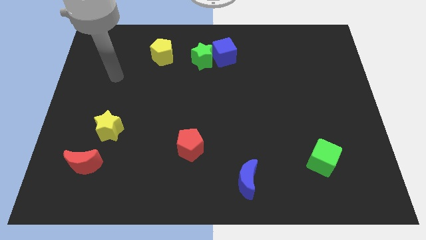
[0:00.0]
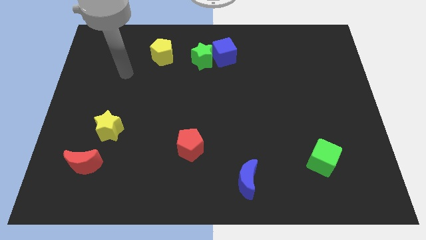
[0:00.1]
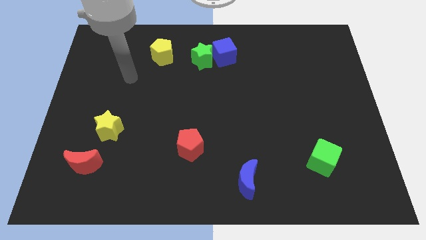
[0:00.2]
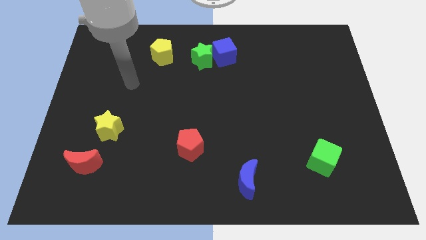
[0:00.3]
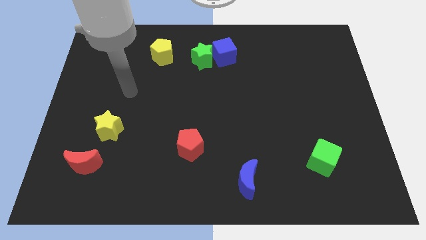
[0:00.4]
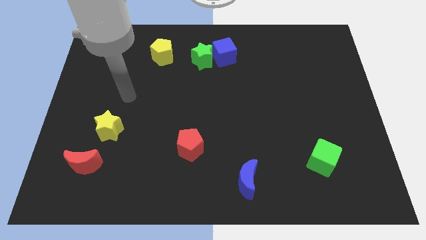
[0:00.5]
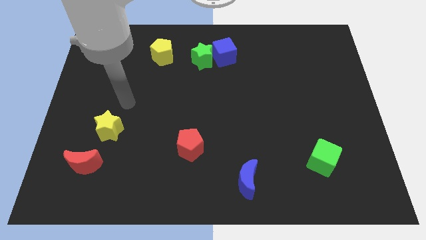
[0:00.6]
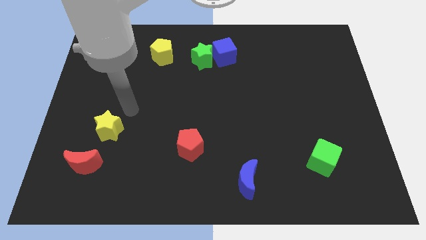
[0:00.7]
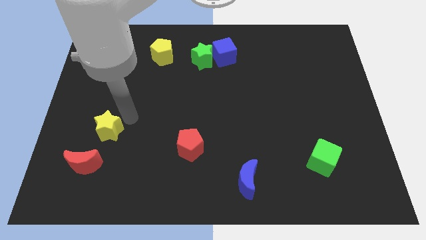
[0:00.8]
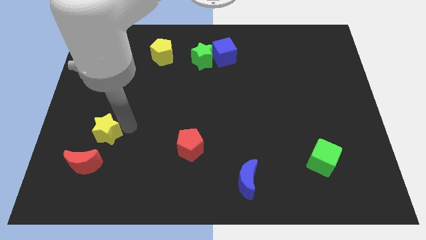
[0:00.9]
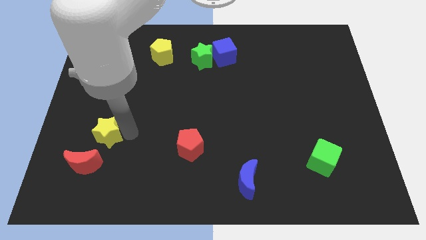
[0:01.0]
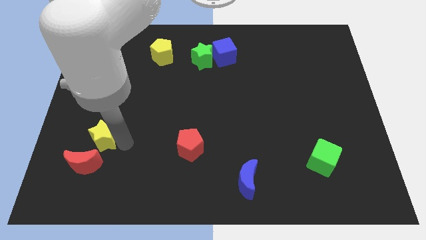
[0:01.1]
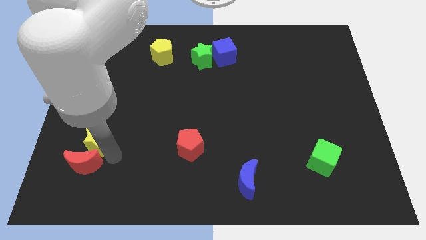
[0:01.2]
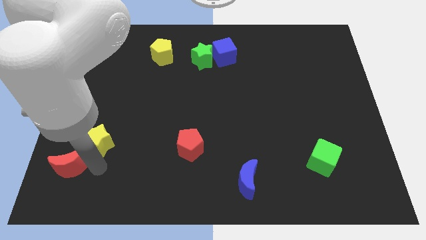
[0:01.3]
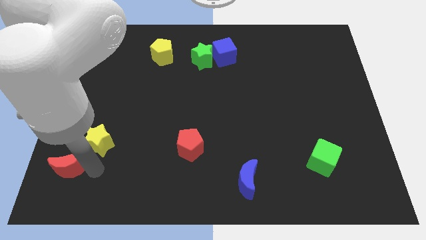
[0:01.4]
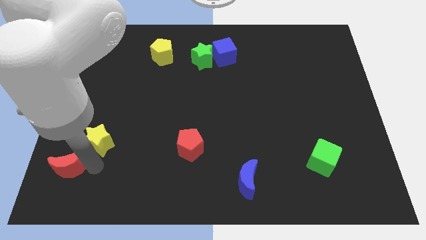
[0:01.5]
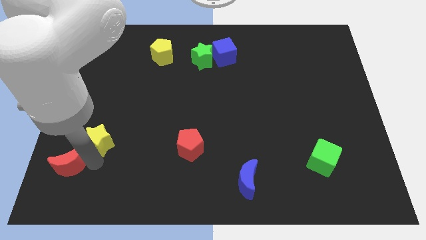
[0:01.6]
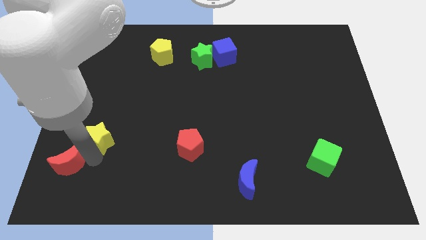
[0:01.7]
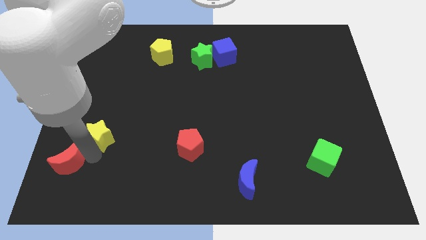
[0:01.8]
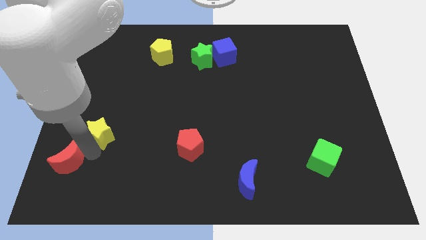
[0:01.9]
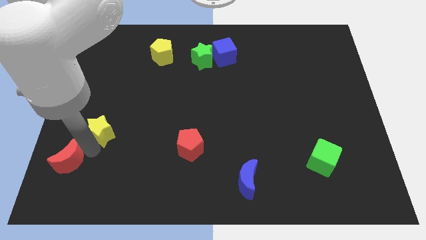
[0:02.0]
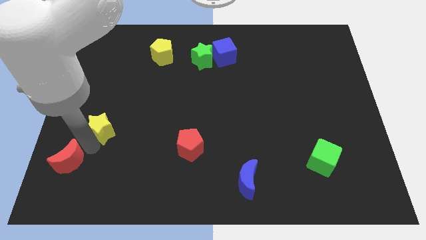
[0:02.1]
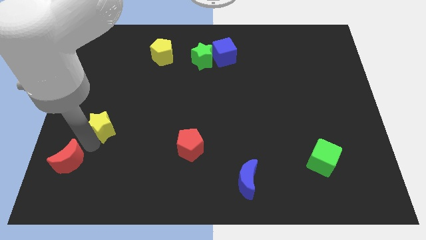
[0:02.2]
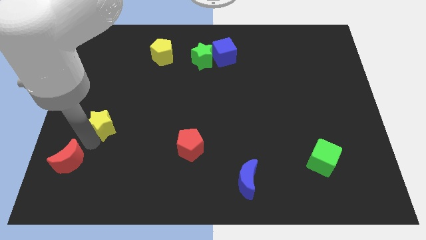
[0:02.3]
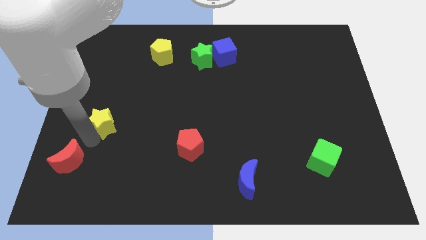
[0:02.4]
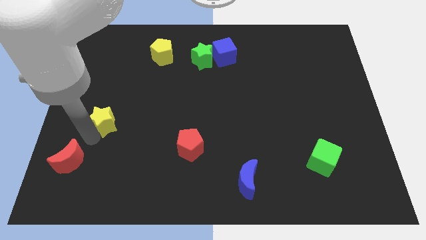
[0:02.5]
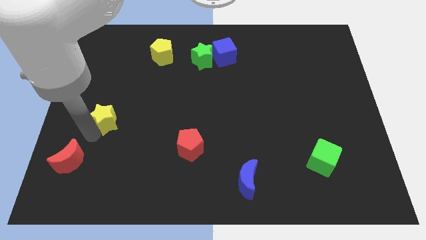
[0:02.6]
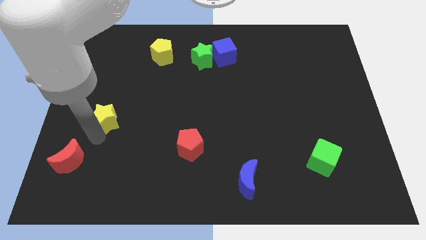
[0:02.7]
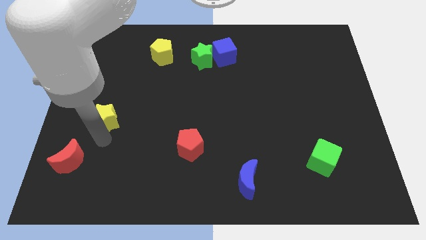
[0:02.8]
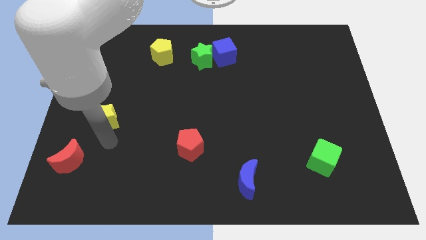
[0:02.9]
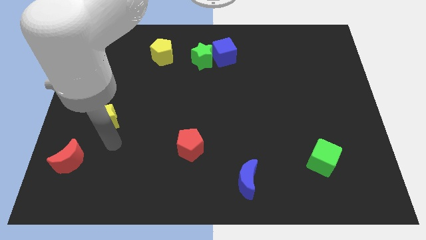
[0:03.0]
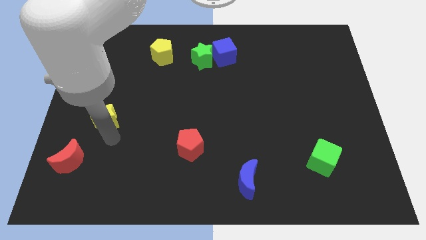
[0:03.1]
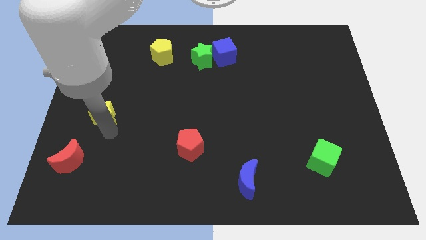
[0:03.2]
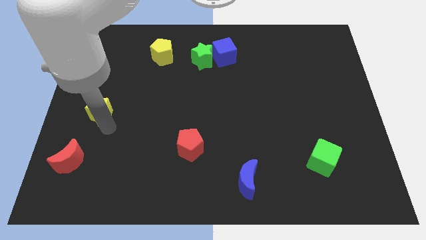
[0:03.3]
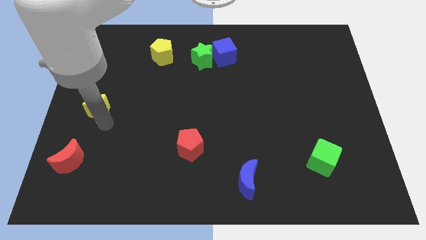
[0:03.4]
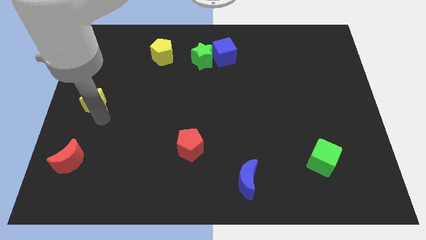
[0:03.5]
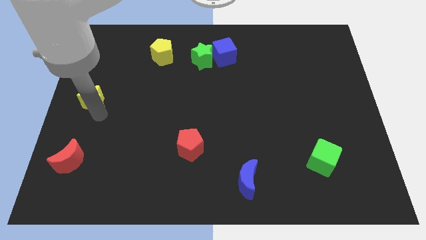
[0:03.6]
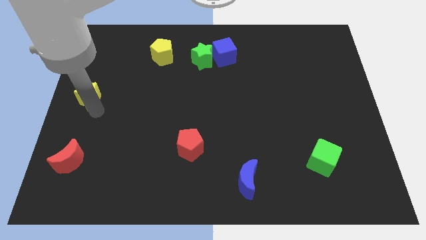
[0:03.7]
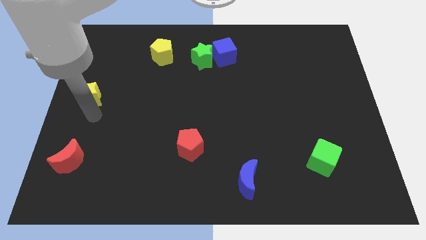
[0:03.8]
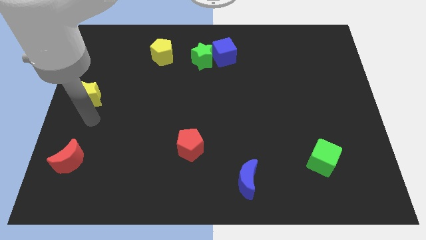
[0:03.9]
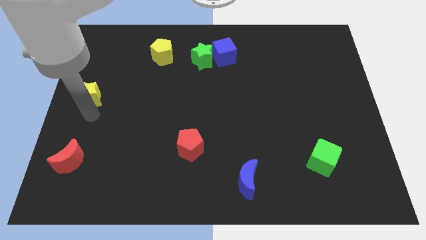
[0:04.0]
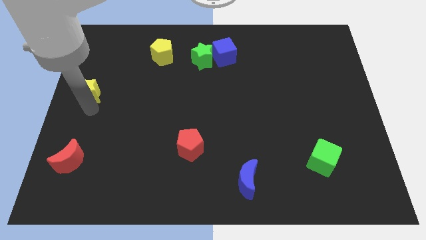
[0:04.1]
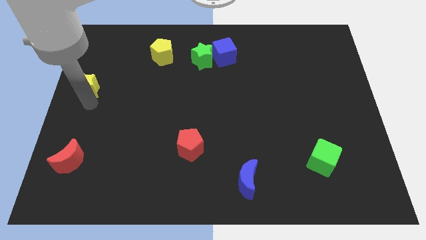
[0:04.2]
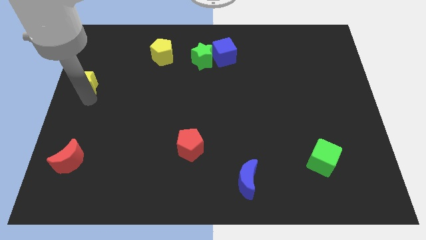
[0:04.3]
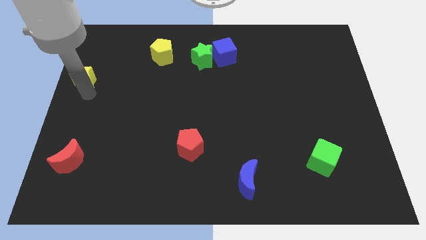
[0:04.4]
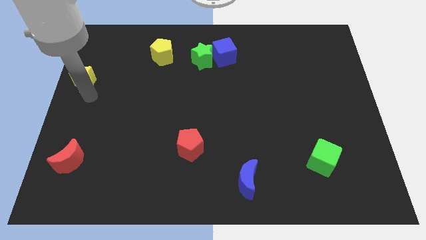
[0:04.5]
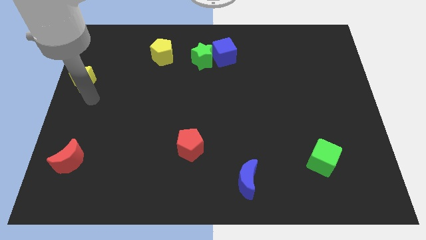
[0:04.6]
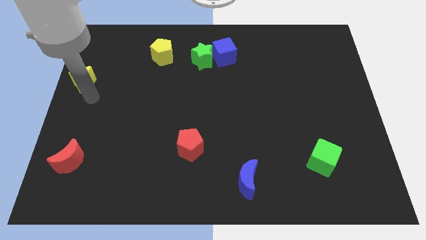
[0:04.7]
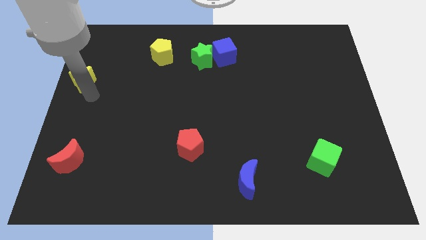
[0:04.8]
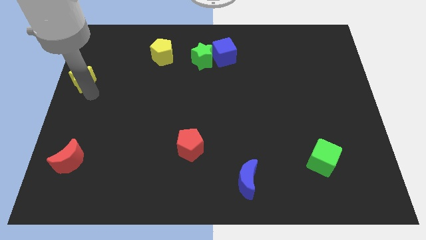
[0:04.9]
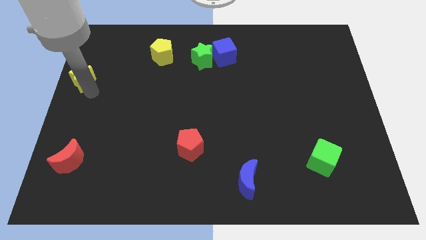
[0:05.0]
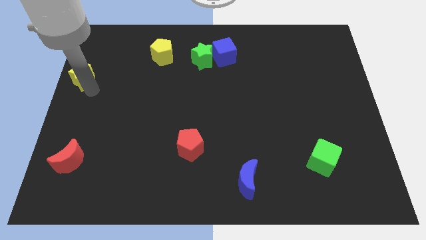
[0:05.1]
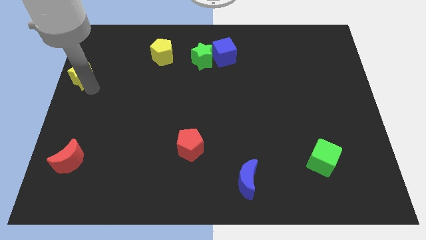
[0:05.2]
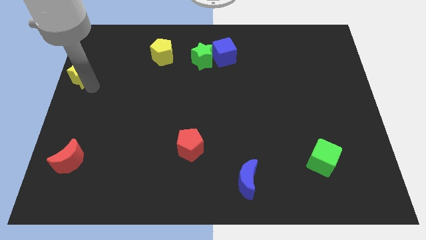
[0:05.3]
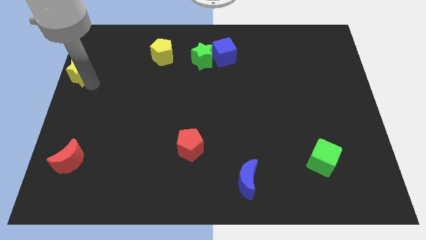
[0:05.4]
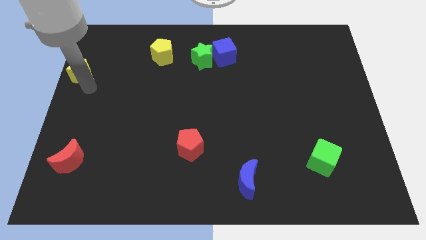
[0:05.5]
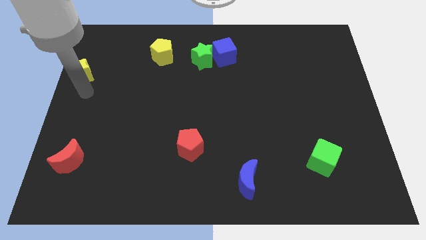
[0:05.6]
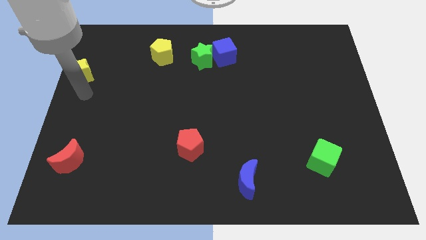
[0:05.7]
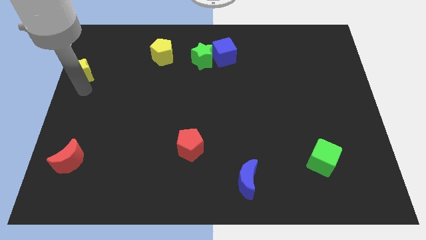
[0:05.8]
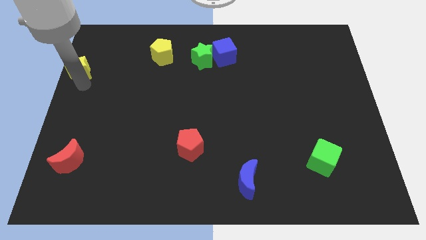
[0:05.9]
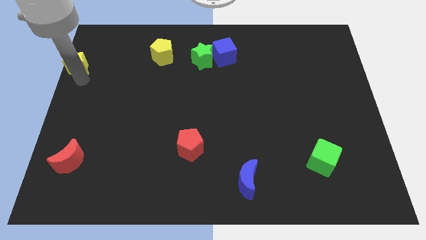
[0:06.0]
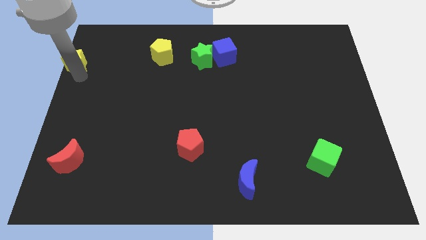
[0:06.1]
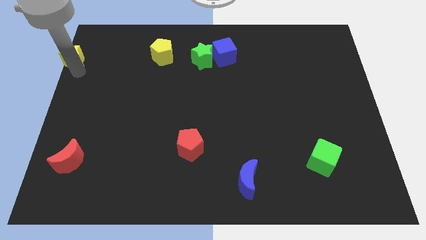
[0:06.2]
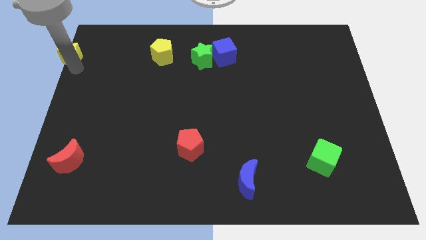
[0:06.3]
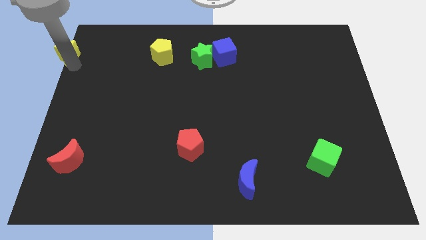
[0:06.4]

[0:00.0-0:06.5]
push the yellow star to the upper left corner
